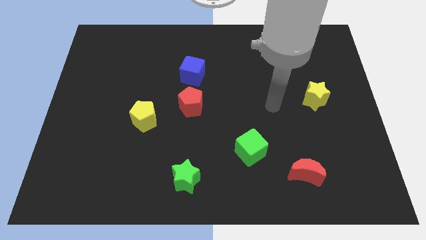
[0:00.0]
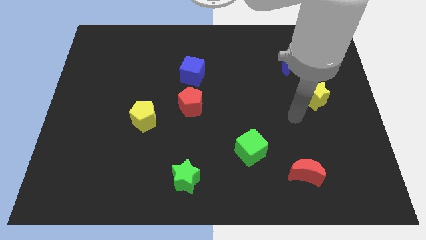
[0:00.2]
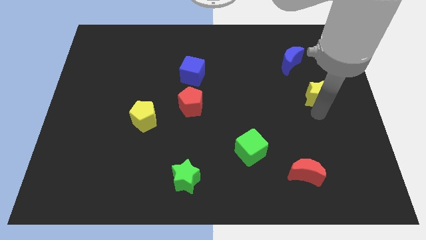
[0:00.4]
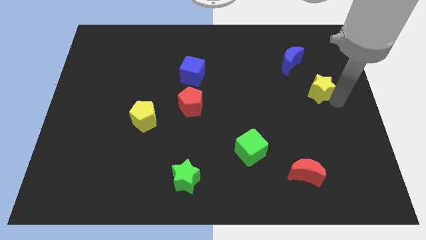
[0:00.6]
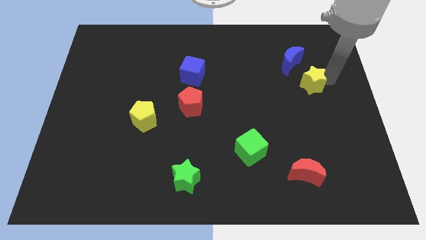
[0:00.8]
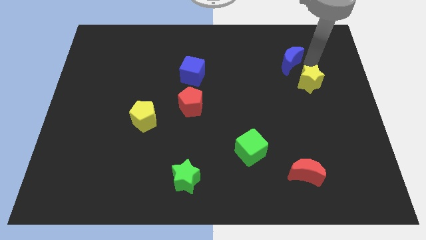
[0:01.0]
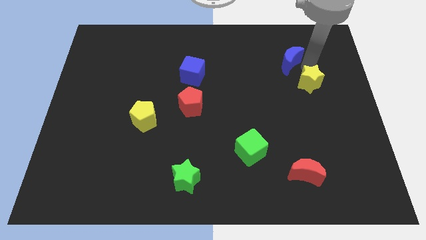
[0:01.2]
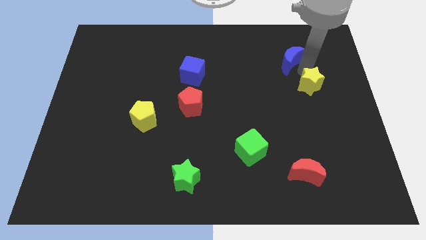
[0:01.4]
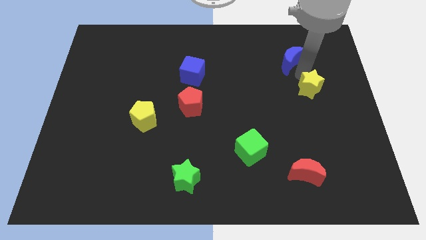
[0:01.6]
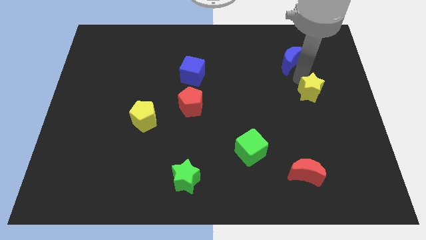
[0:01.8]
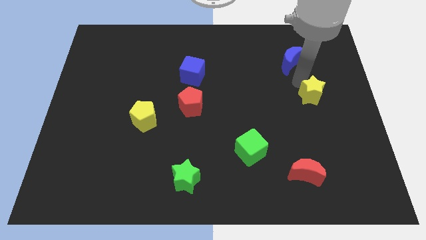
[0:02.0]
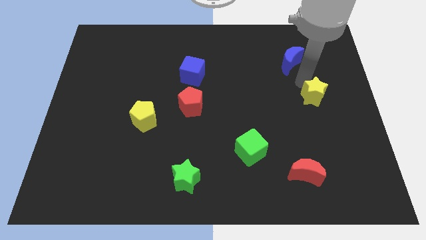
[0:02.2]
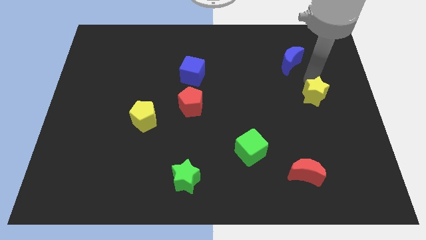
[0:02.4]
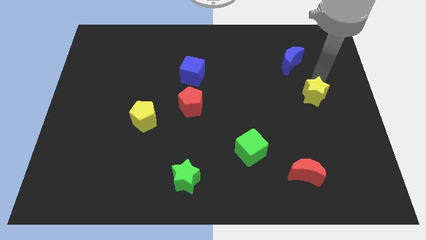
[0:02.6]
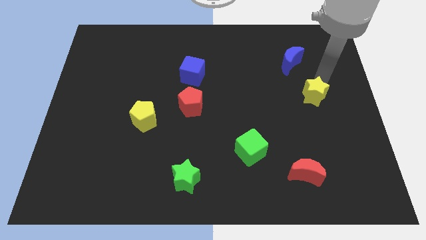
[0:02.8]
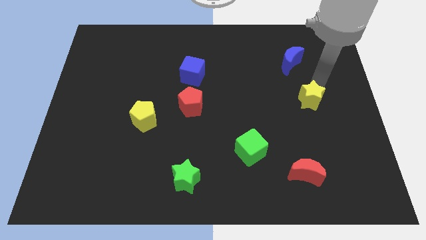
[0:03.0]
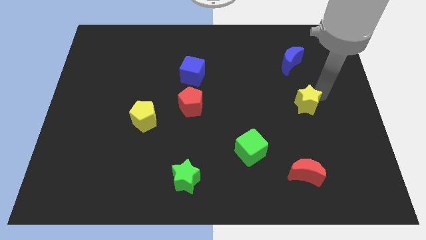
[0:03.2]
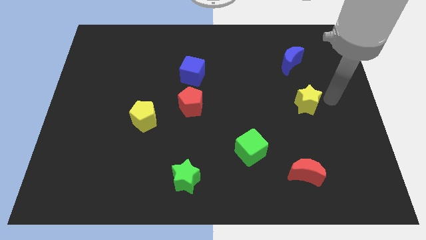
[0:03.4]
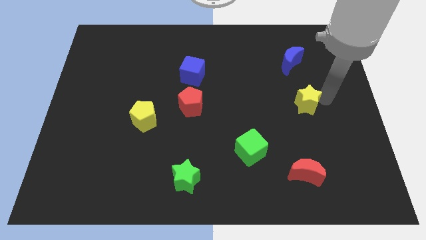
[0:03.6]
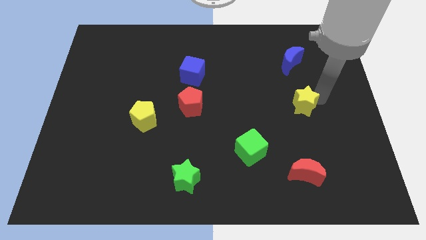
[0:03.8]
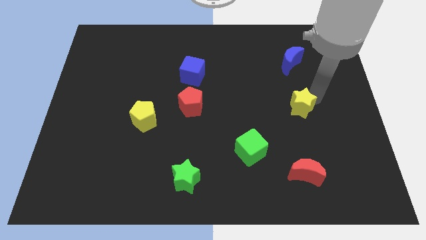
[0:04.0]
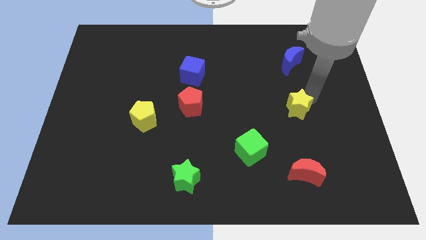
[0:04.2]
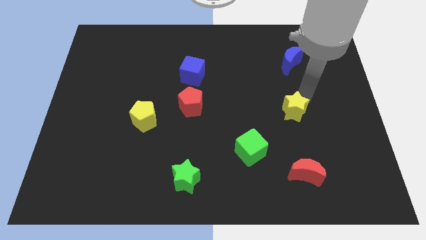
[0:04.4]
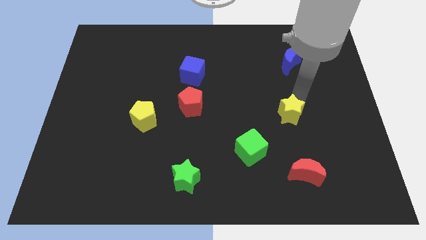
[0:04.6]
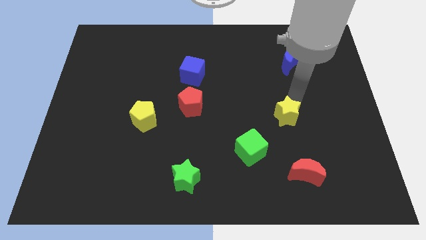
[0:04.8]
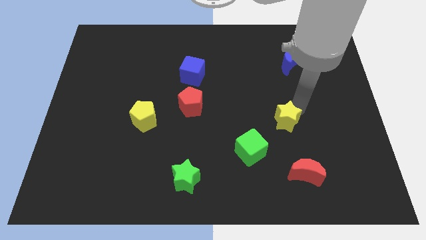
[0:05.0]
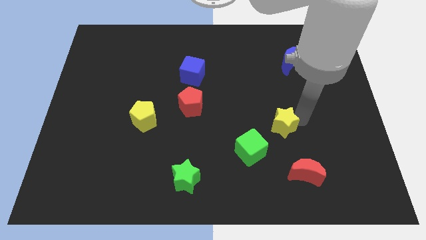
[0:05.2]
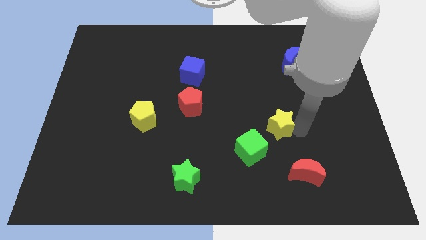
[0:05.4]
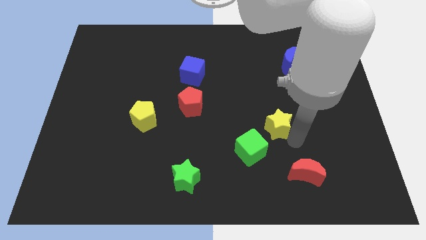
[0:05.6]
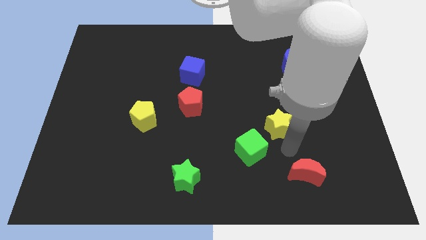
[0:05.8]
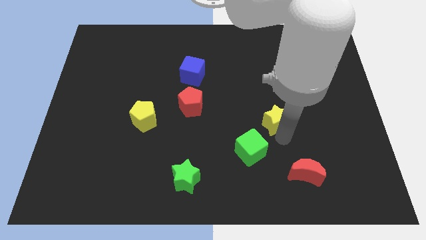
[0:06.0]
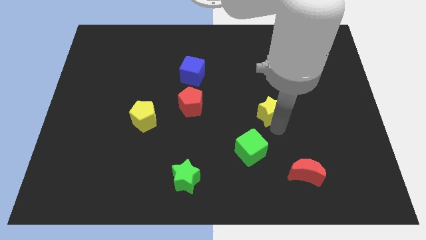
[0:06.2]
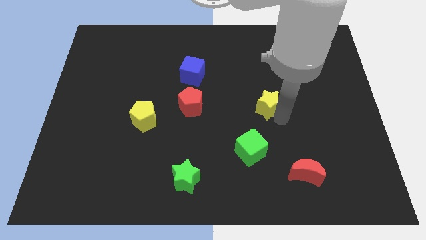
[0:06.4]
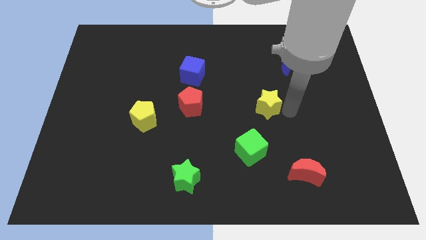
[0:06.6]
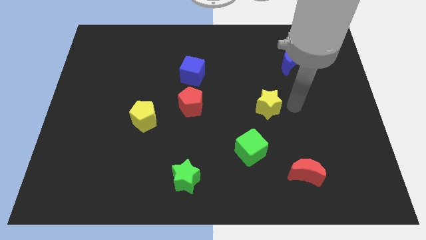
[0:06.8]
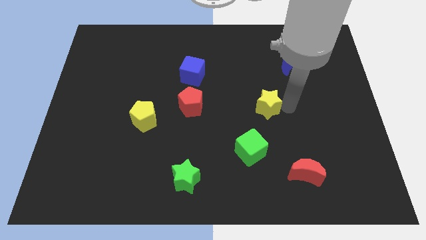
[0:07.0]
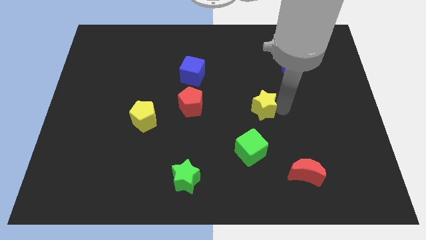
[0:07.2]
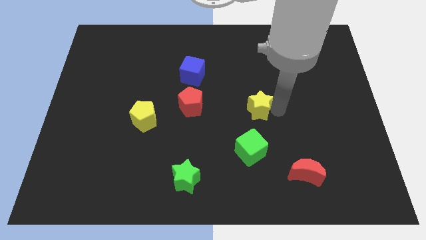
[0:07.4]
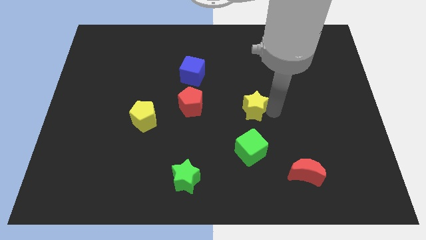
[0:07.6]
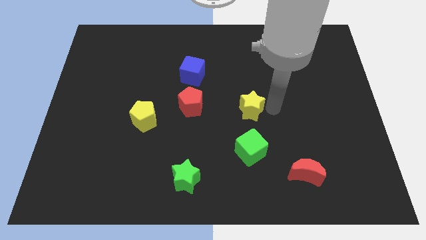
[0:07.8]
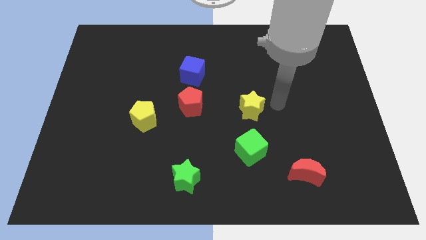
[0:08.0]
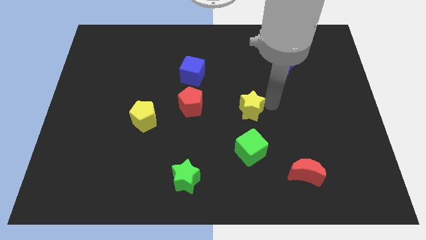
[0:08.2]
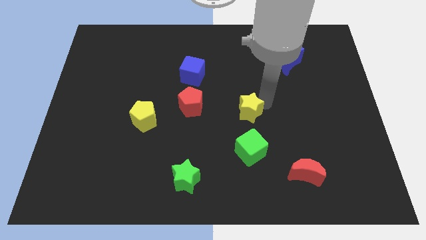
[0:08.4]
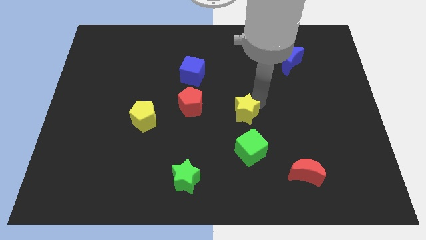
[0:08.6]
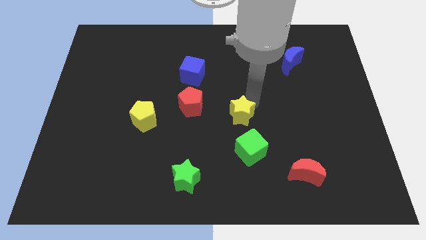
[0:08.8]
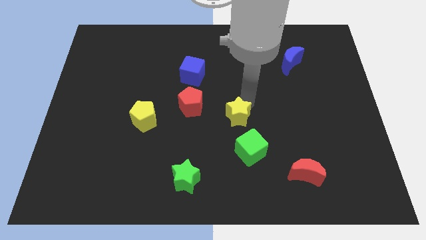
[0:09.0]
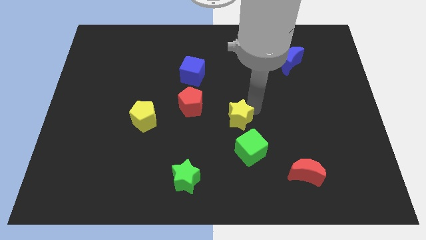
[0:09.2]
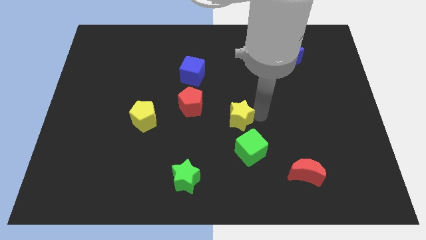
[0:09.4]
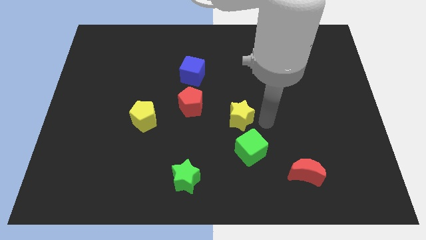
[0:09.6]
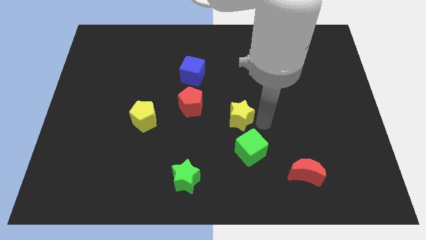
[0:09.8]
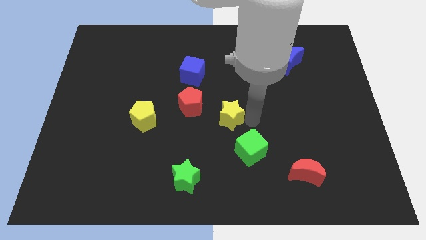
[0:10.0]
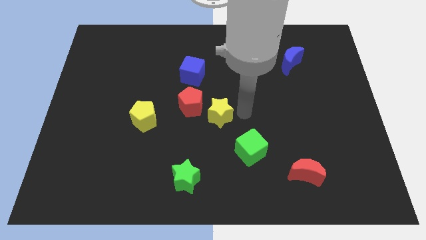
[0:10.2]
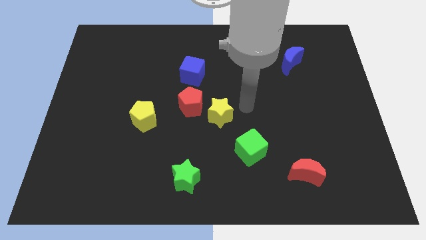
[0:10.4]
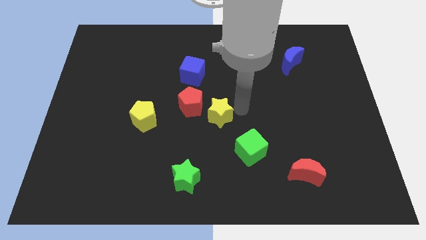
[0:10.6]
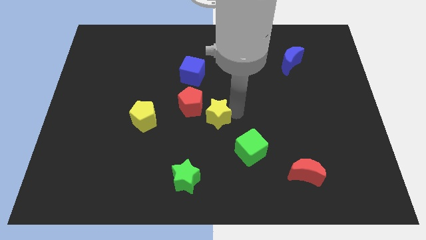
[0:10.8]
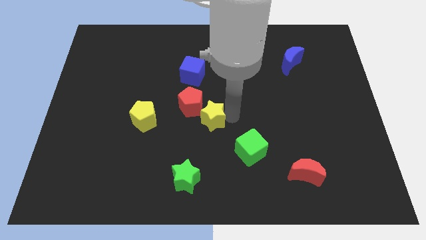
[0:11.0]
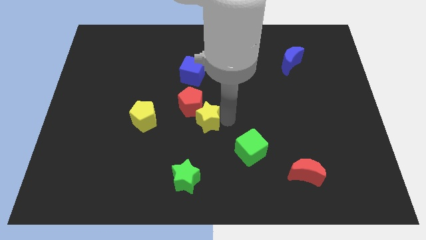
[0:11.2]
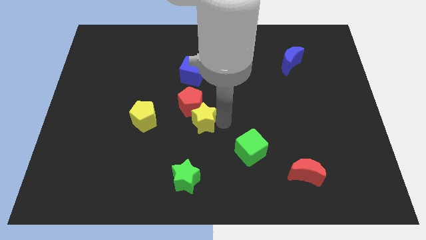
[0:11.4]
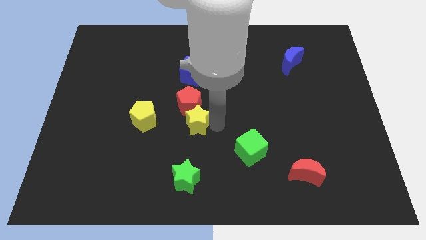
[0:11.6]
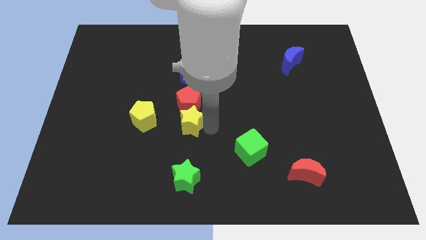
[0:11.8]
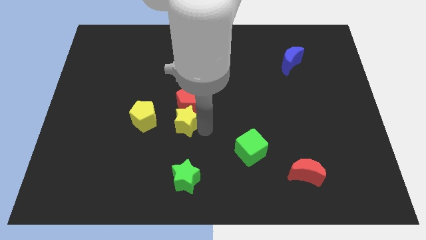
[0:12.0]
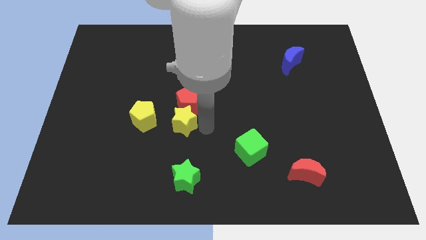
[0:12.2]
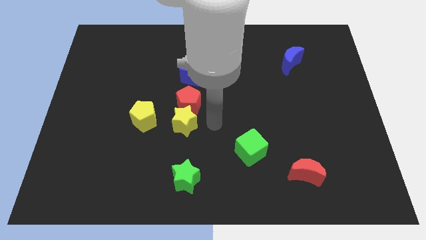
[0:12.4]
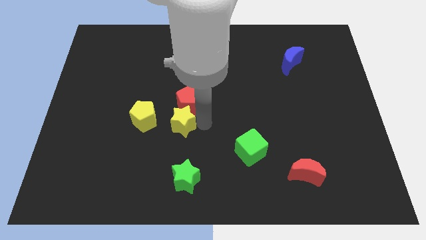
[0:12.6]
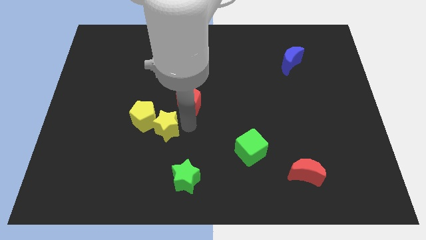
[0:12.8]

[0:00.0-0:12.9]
put the yellow star next to the yellow pentagon

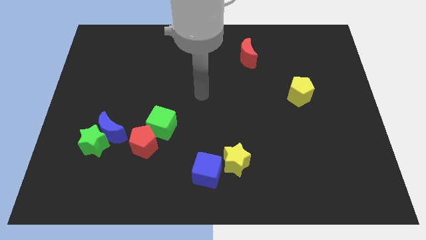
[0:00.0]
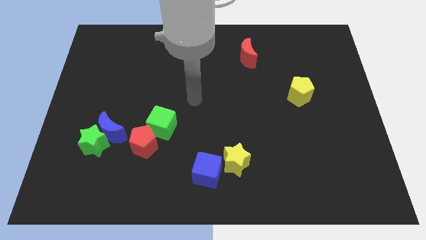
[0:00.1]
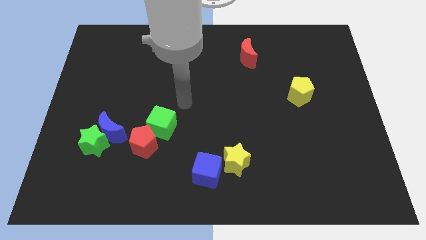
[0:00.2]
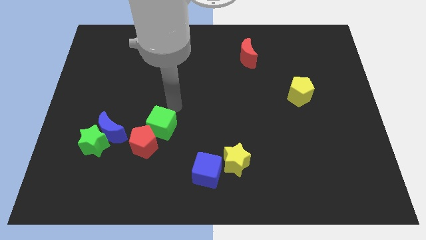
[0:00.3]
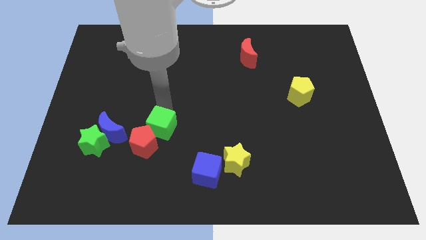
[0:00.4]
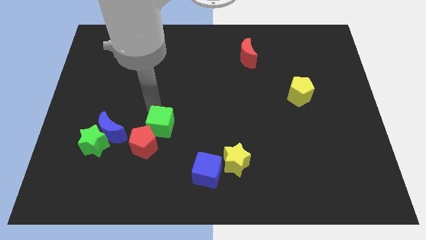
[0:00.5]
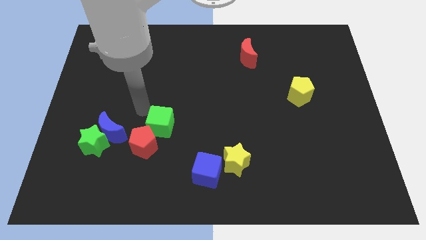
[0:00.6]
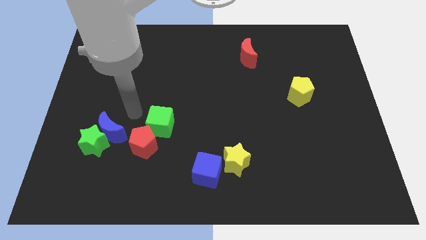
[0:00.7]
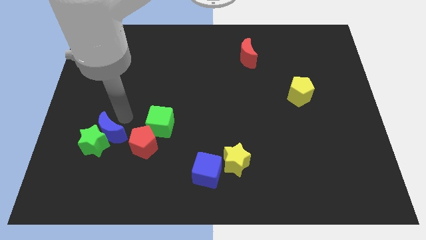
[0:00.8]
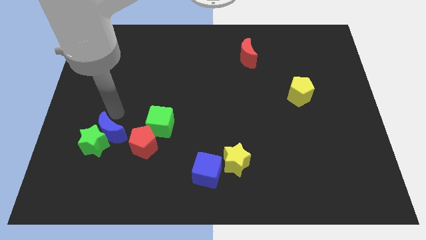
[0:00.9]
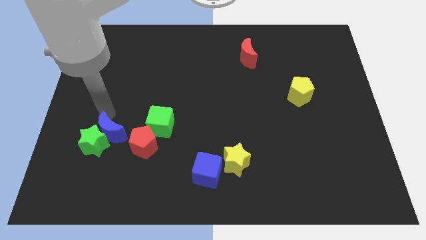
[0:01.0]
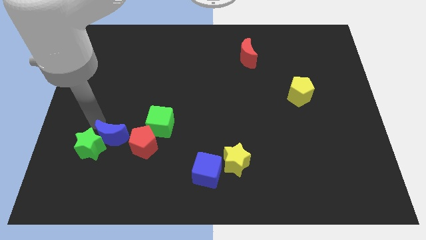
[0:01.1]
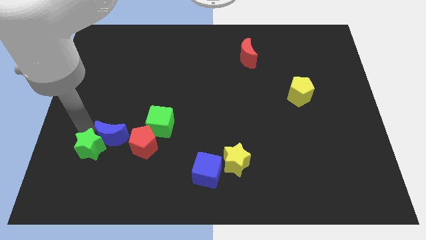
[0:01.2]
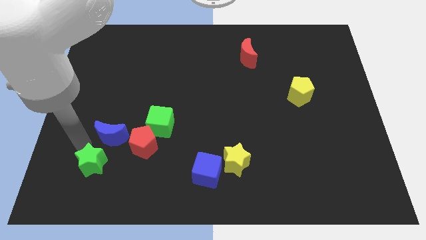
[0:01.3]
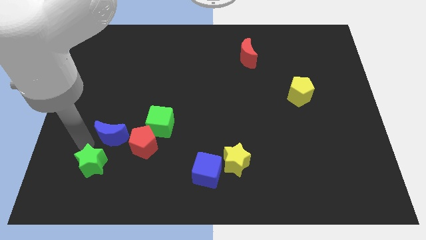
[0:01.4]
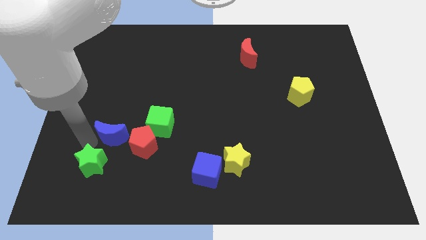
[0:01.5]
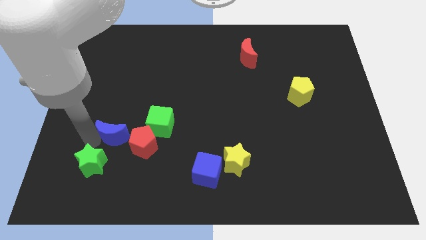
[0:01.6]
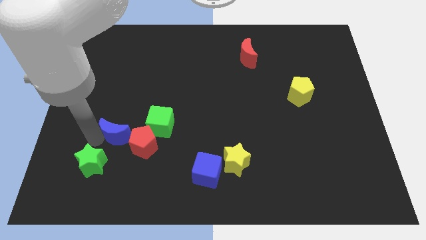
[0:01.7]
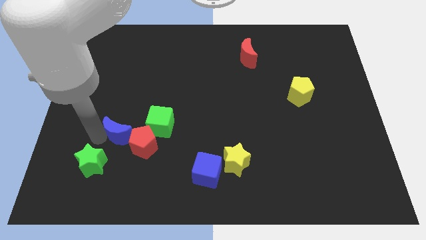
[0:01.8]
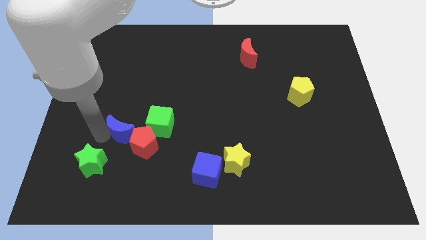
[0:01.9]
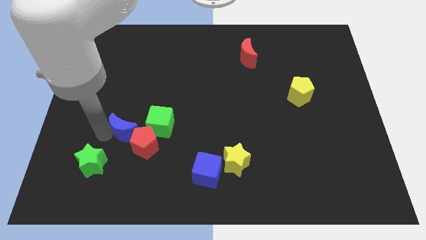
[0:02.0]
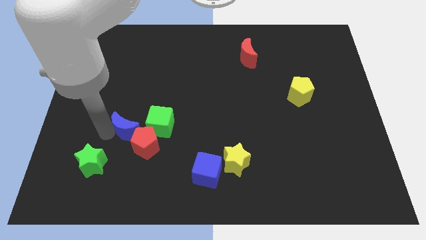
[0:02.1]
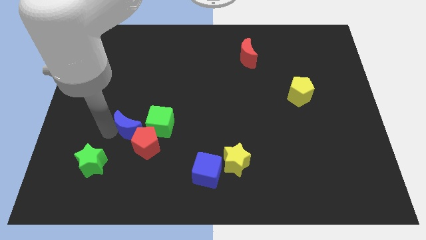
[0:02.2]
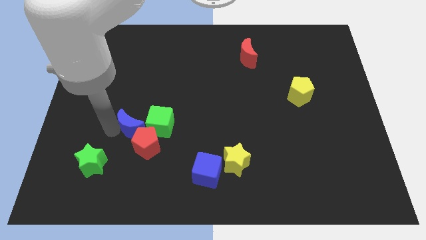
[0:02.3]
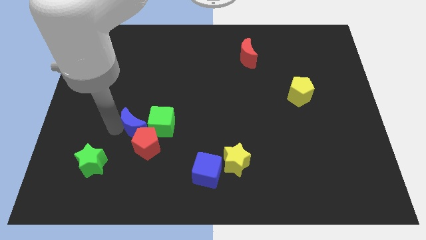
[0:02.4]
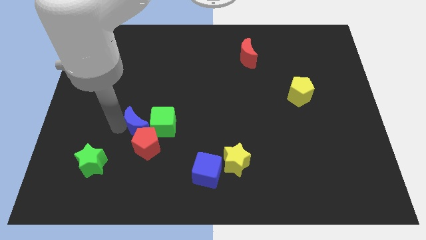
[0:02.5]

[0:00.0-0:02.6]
put the blue moon towards the green cube
